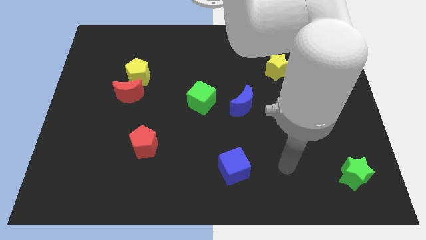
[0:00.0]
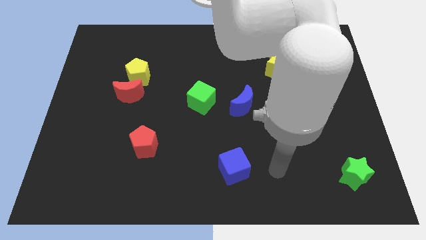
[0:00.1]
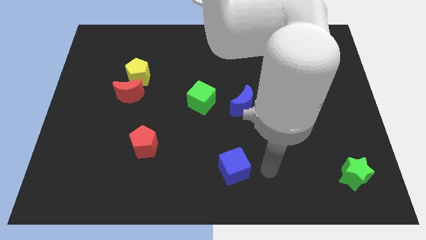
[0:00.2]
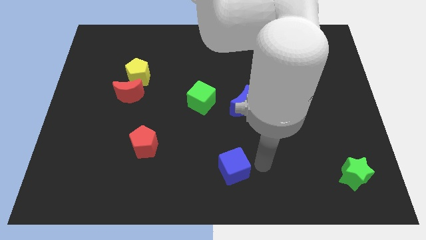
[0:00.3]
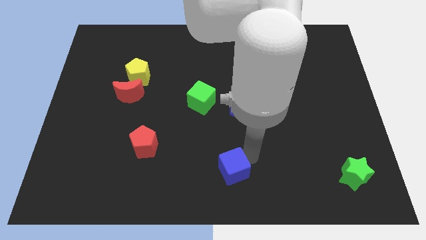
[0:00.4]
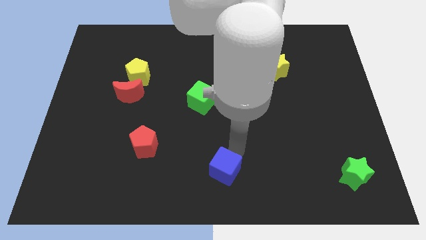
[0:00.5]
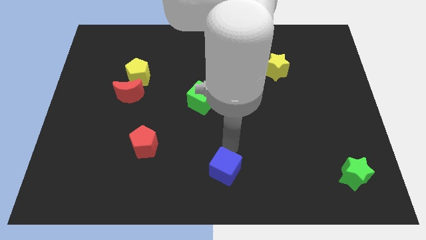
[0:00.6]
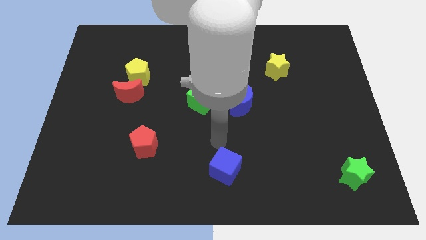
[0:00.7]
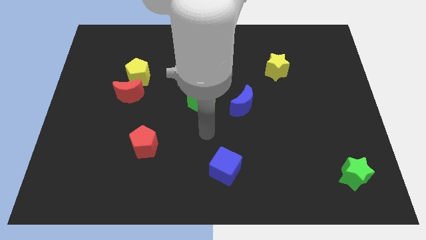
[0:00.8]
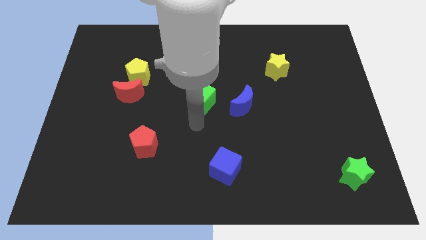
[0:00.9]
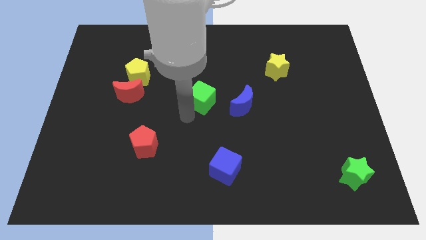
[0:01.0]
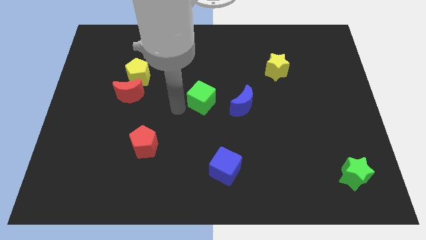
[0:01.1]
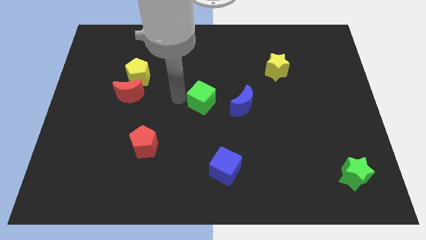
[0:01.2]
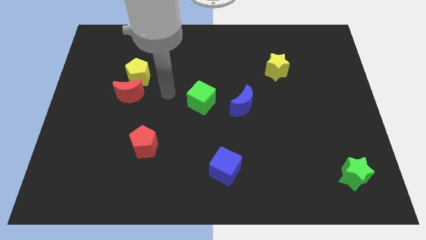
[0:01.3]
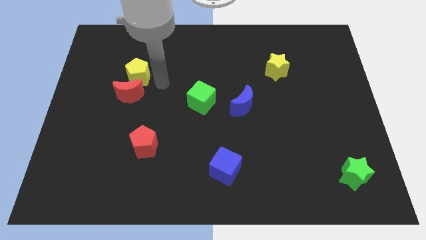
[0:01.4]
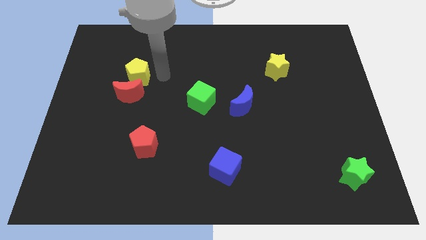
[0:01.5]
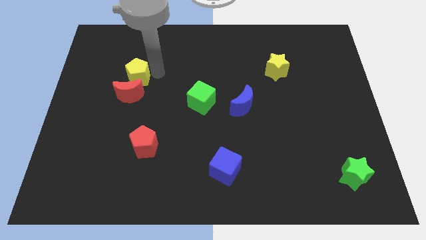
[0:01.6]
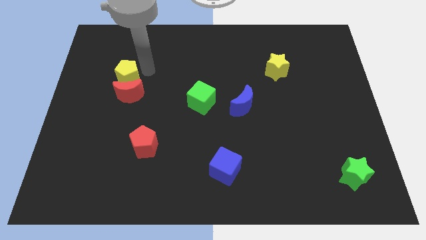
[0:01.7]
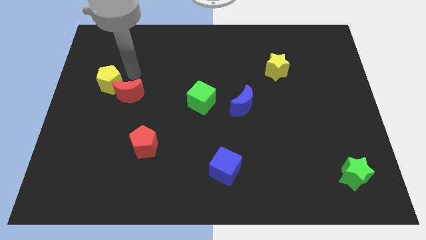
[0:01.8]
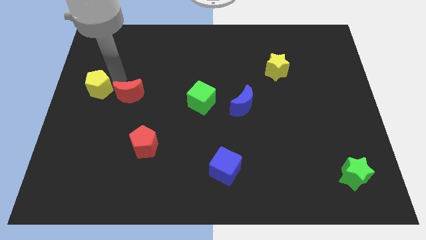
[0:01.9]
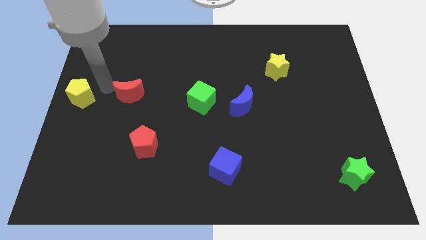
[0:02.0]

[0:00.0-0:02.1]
separate the red moon from the yellow pentagon

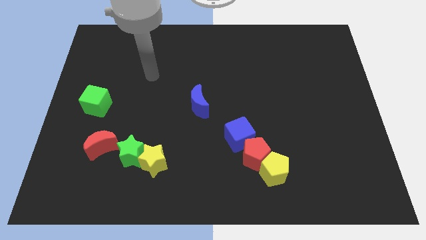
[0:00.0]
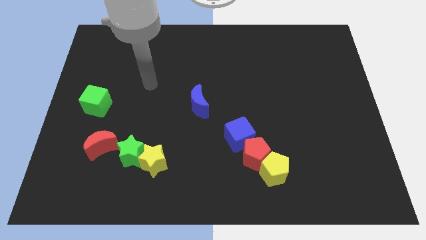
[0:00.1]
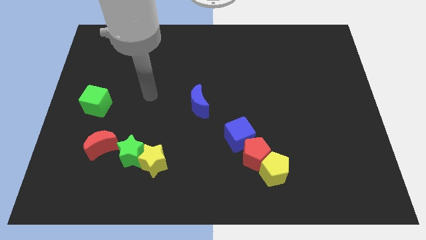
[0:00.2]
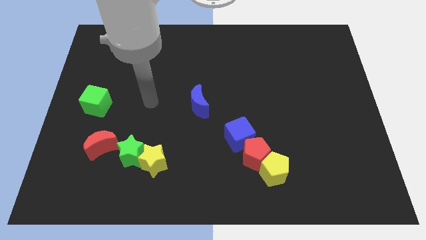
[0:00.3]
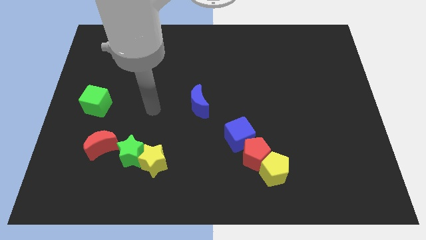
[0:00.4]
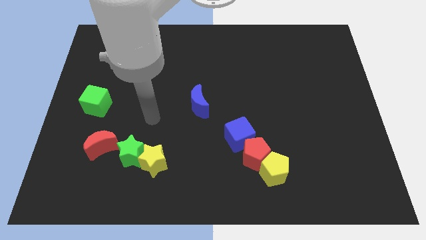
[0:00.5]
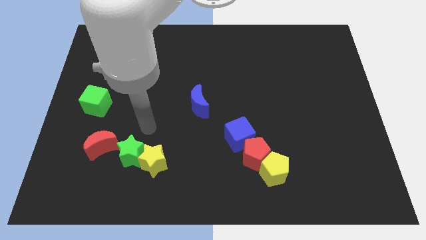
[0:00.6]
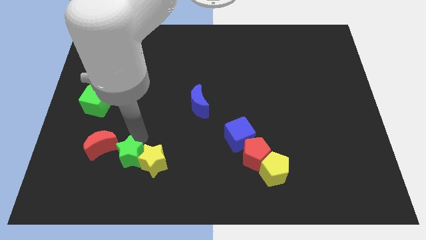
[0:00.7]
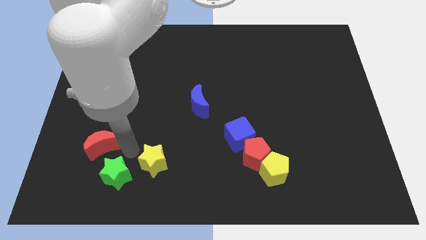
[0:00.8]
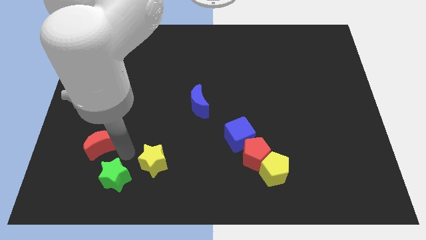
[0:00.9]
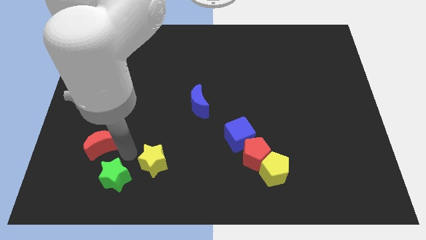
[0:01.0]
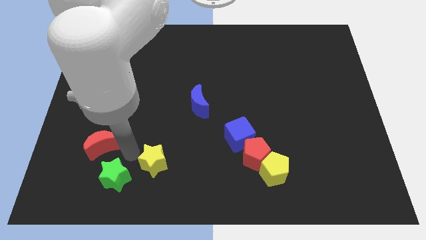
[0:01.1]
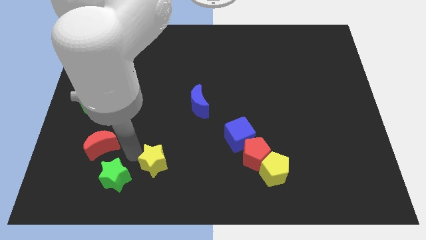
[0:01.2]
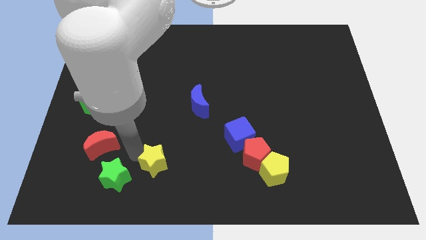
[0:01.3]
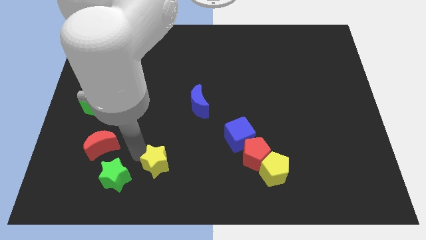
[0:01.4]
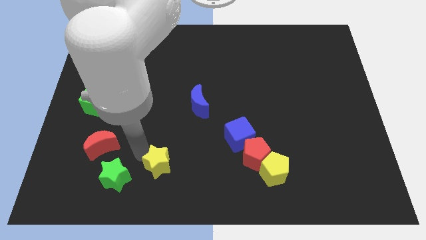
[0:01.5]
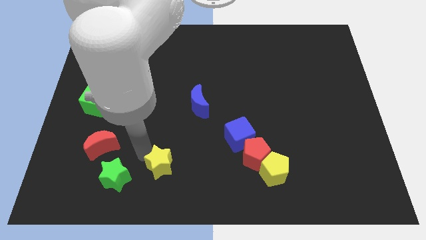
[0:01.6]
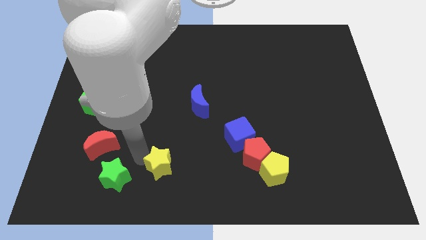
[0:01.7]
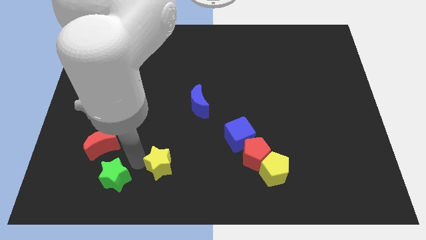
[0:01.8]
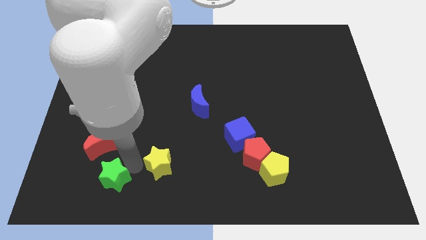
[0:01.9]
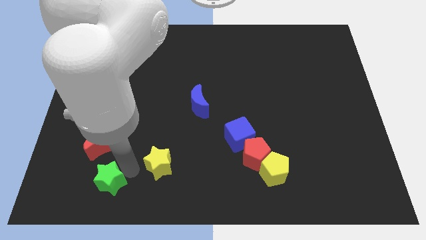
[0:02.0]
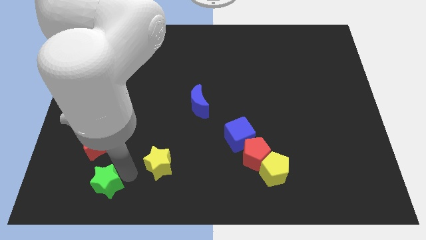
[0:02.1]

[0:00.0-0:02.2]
pull the yellow star apart from the green star

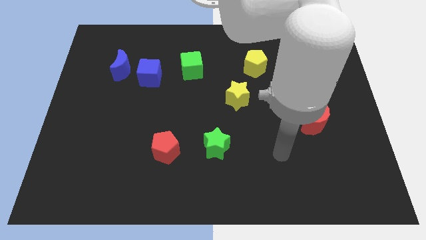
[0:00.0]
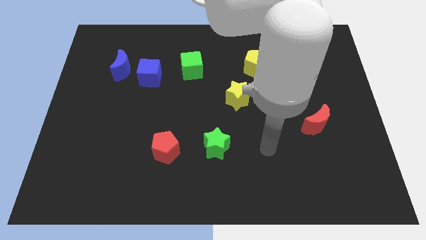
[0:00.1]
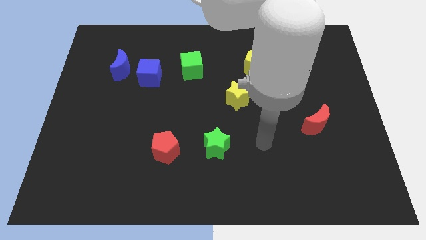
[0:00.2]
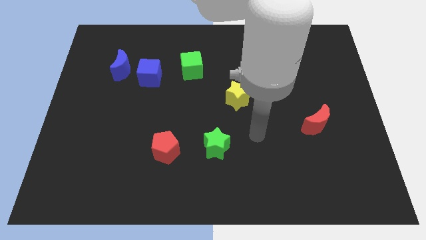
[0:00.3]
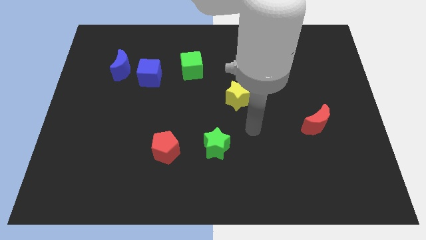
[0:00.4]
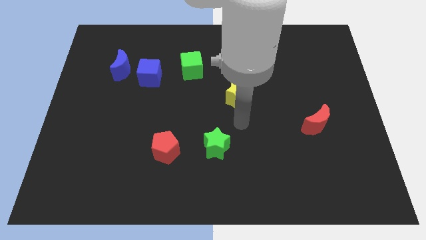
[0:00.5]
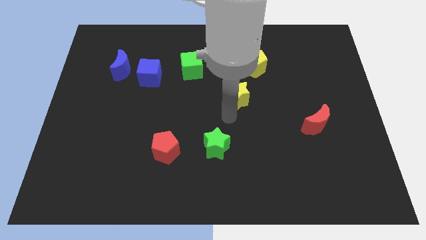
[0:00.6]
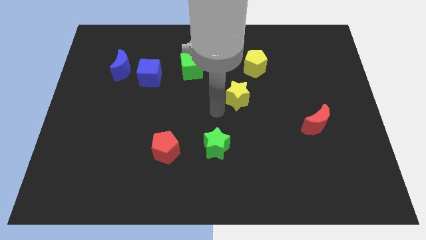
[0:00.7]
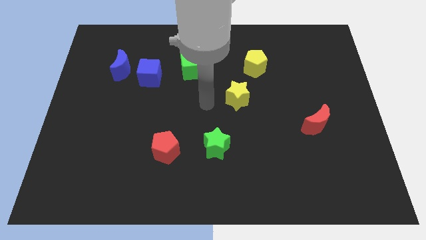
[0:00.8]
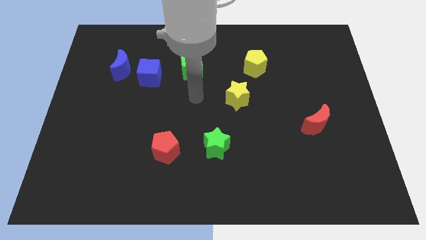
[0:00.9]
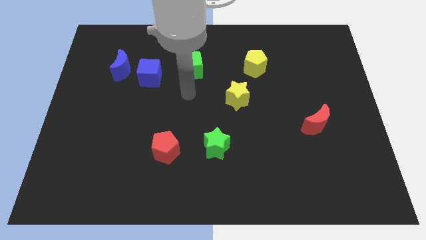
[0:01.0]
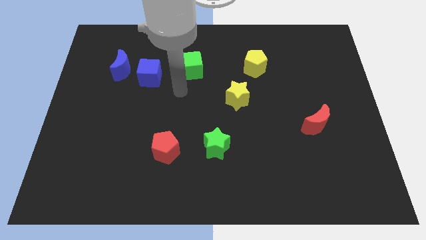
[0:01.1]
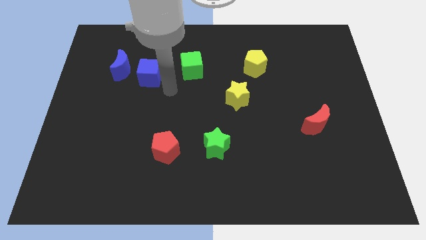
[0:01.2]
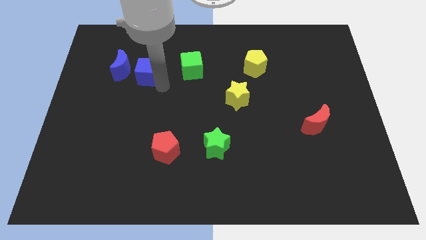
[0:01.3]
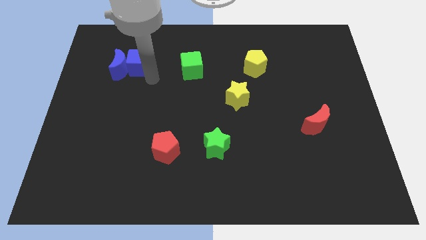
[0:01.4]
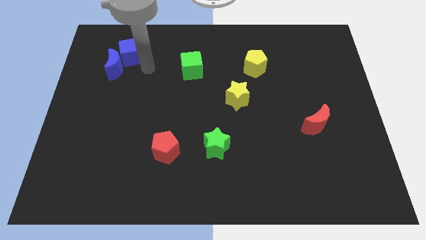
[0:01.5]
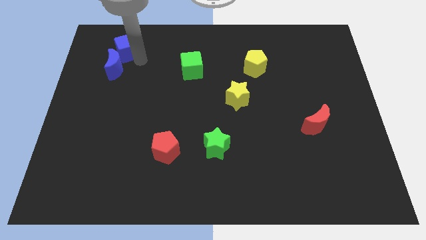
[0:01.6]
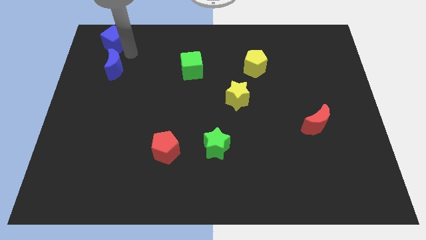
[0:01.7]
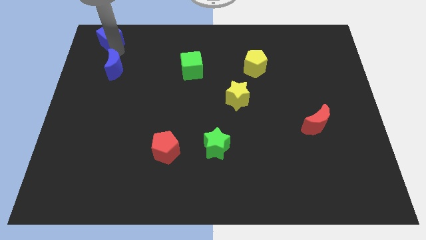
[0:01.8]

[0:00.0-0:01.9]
move the blue moon away from the blue cube

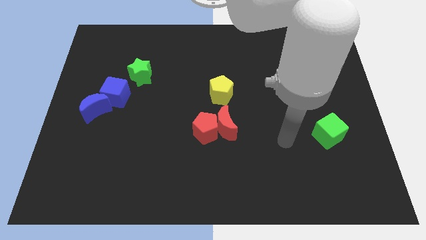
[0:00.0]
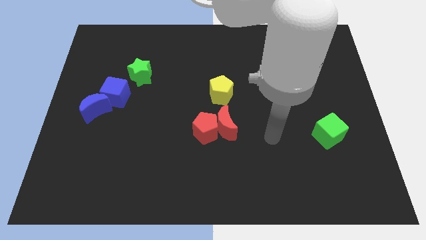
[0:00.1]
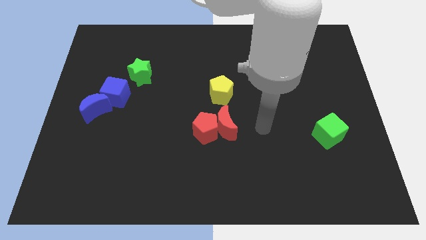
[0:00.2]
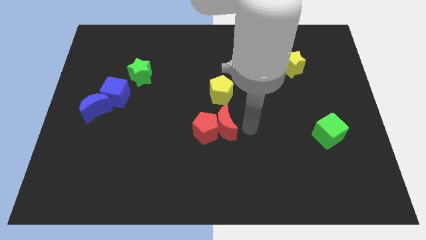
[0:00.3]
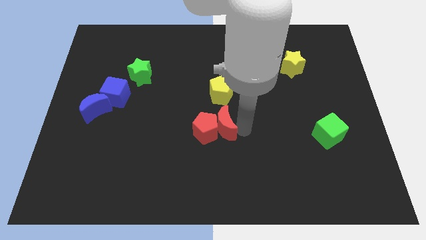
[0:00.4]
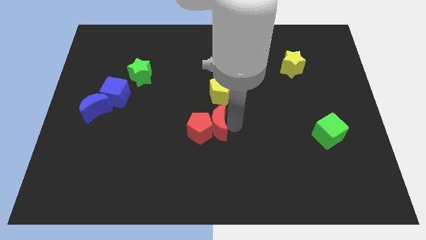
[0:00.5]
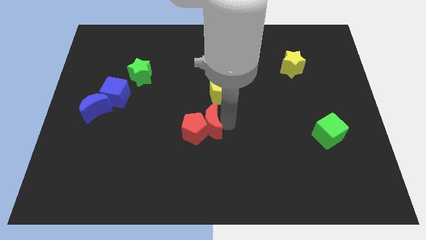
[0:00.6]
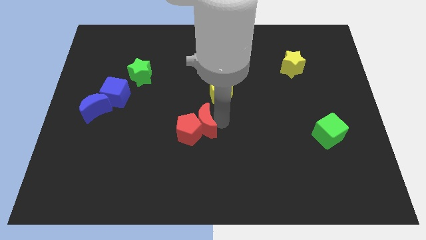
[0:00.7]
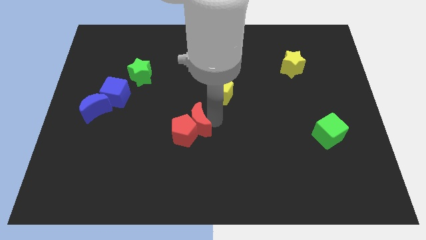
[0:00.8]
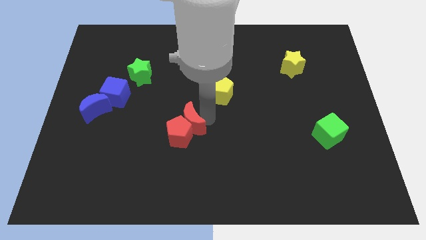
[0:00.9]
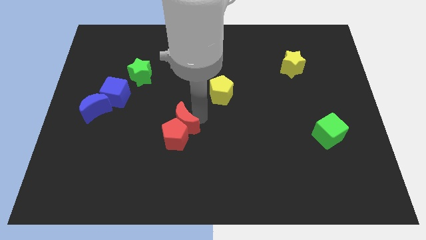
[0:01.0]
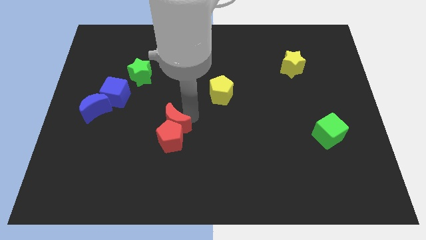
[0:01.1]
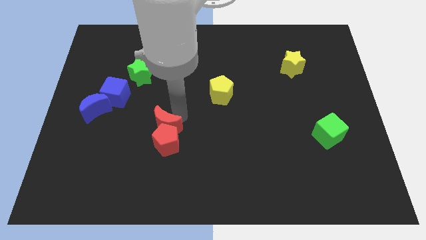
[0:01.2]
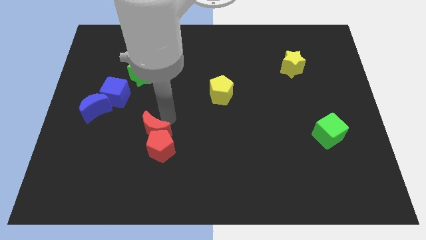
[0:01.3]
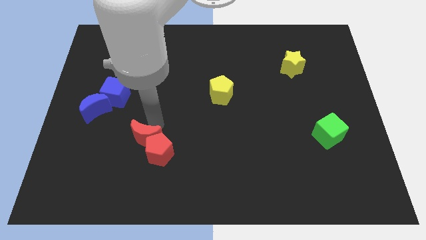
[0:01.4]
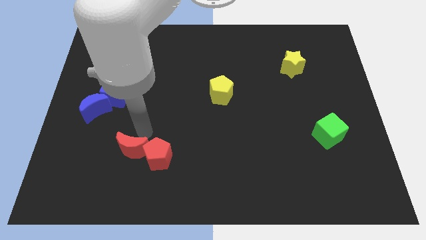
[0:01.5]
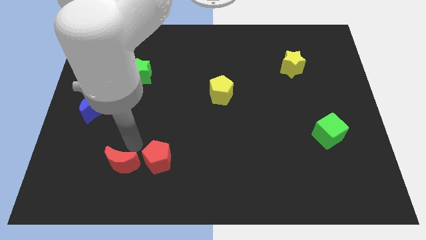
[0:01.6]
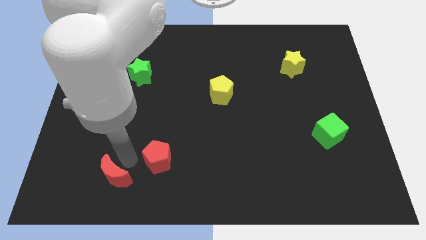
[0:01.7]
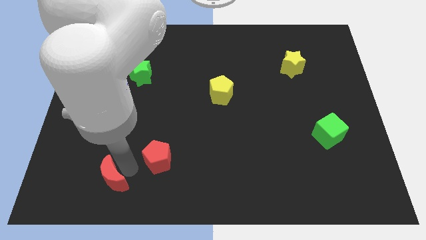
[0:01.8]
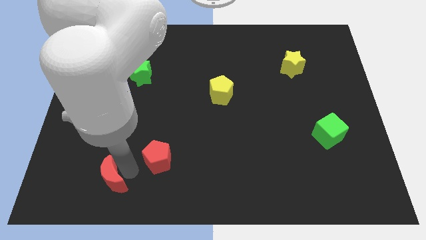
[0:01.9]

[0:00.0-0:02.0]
move the red pentagon away from the red moon

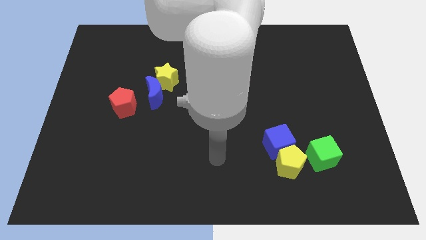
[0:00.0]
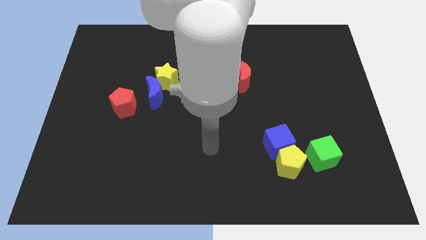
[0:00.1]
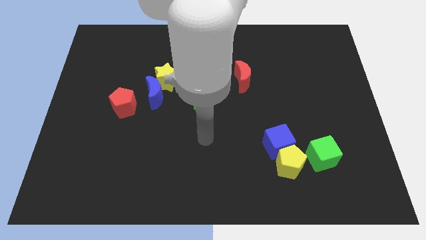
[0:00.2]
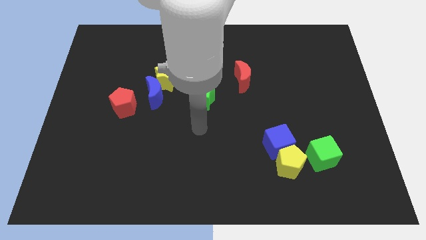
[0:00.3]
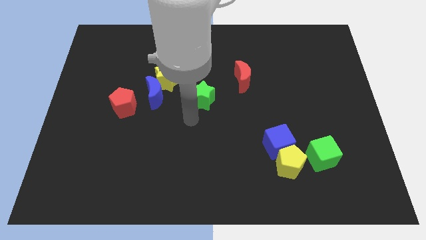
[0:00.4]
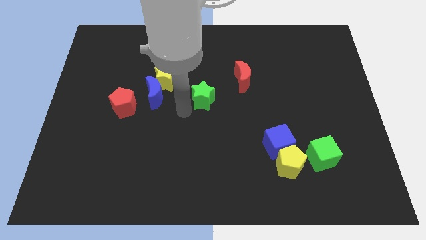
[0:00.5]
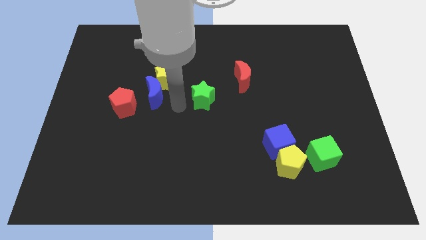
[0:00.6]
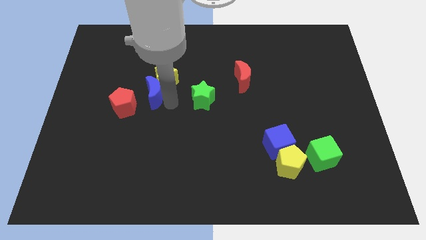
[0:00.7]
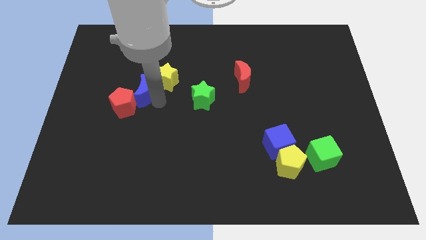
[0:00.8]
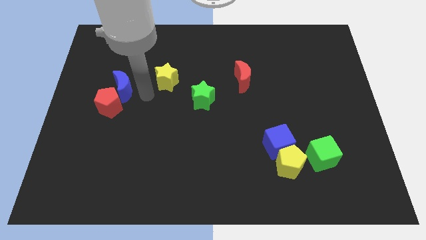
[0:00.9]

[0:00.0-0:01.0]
move the yellow star away from the blue moon
